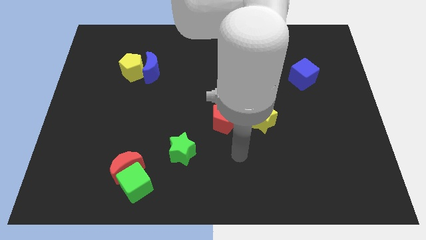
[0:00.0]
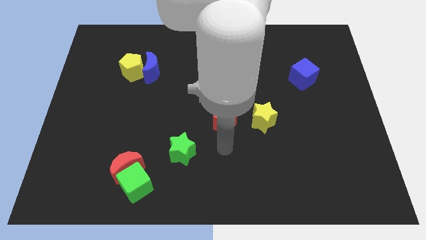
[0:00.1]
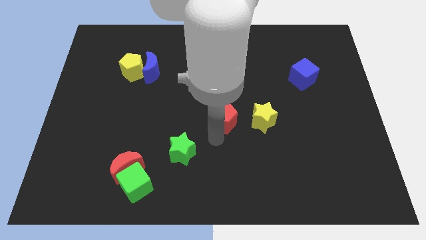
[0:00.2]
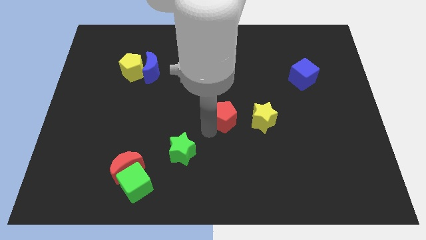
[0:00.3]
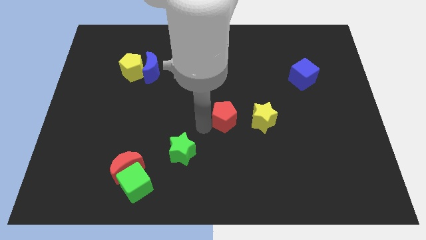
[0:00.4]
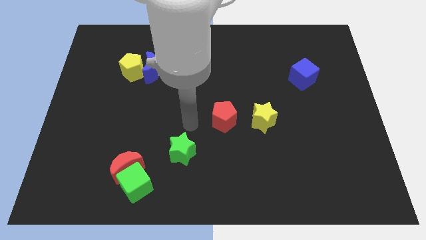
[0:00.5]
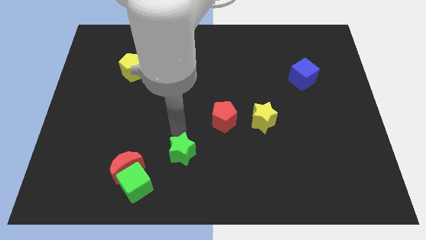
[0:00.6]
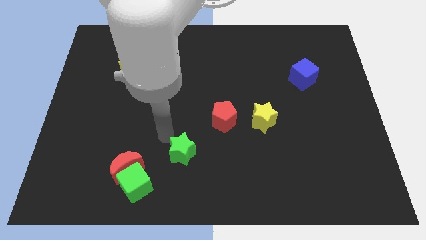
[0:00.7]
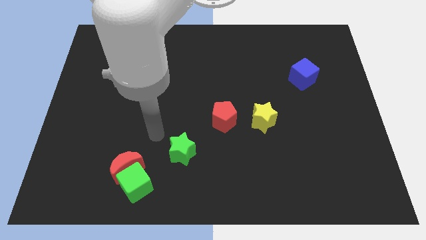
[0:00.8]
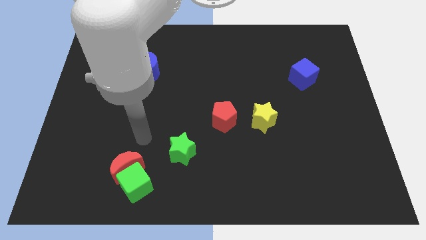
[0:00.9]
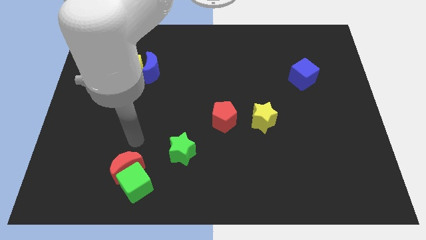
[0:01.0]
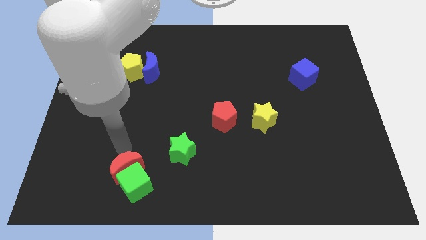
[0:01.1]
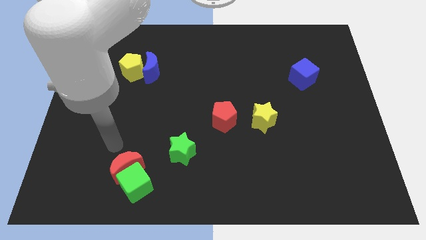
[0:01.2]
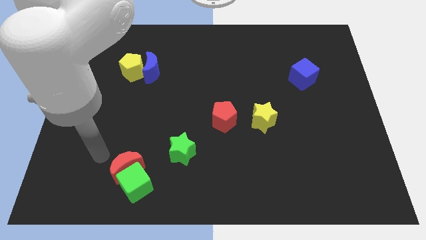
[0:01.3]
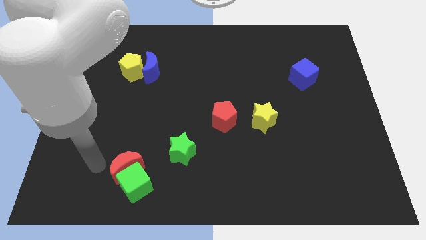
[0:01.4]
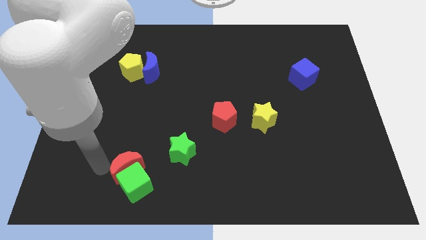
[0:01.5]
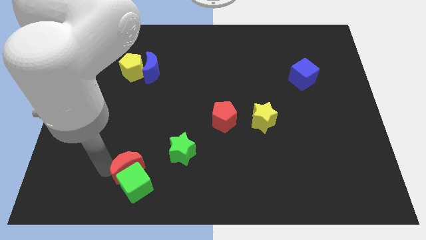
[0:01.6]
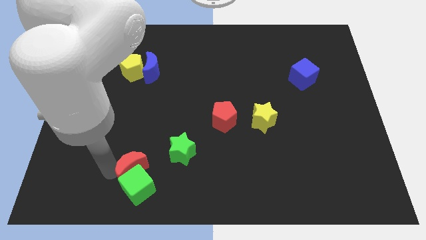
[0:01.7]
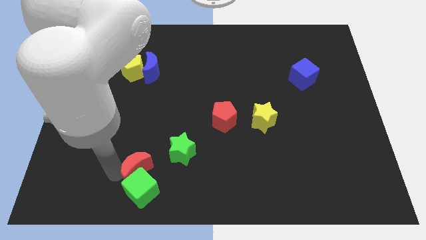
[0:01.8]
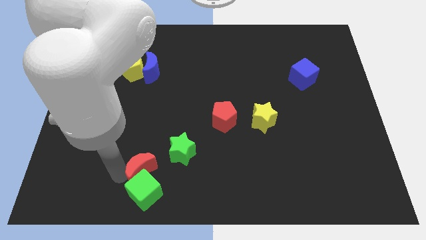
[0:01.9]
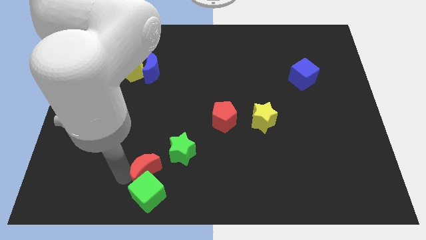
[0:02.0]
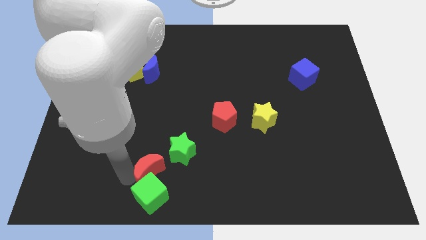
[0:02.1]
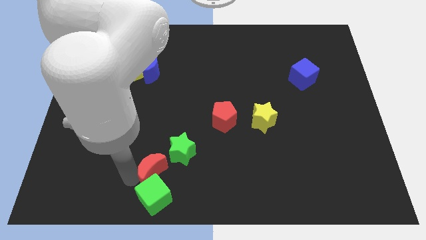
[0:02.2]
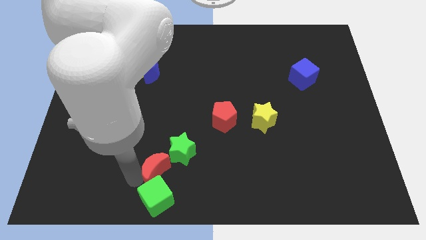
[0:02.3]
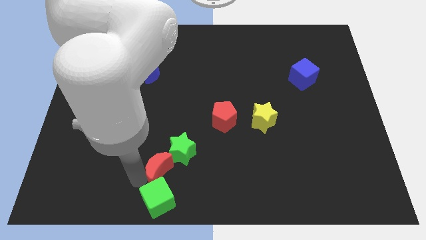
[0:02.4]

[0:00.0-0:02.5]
slightly move the red moon to the right

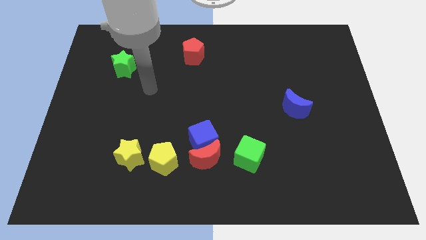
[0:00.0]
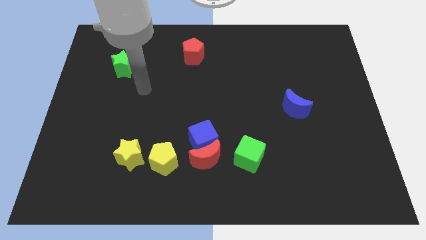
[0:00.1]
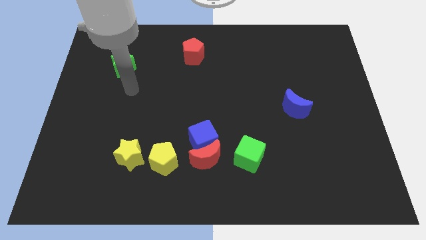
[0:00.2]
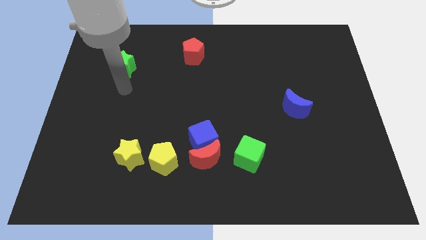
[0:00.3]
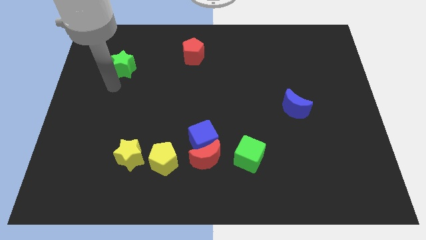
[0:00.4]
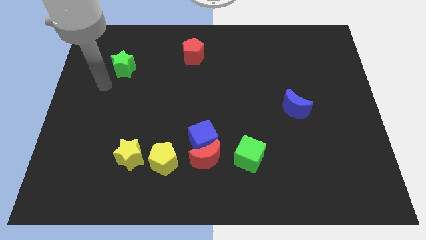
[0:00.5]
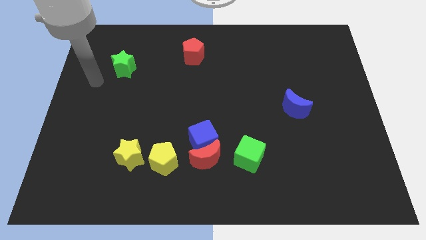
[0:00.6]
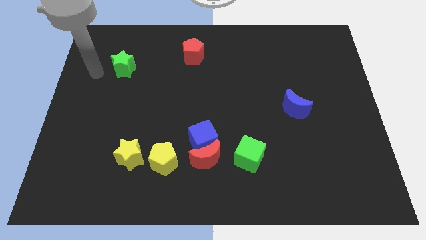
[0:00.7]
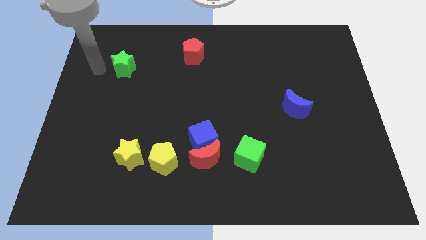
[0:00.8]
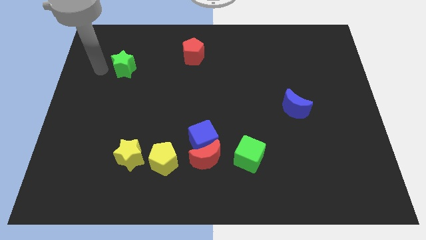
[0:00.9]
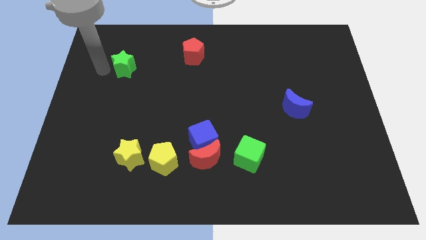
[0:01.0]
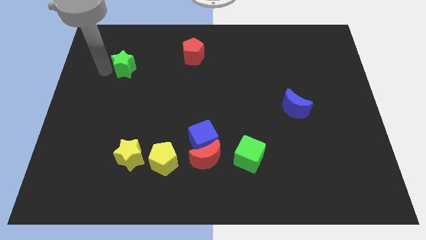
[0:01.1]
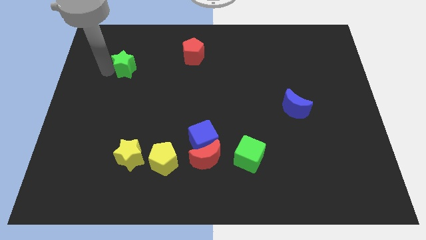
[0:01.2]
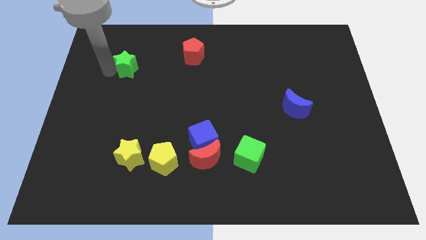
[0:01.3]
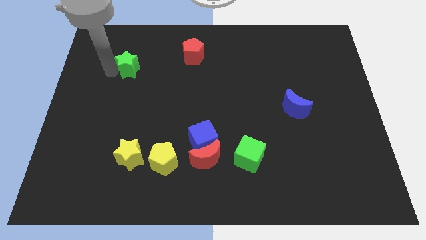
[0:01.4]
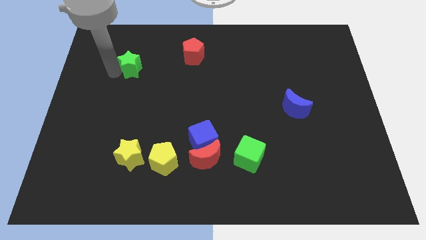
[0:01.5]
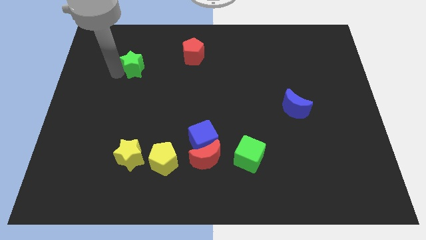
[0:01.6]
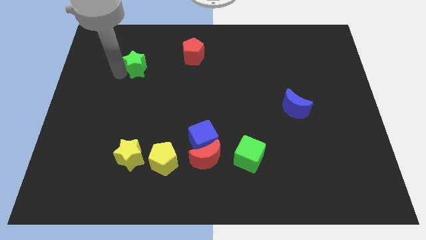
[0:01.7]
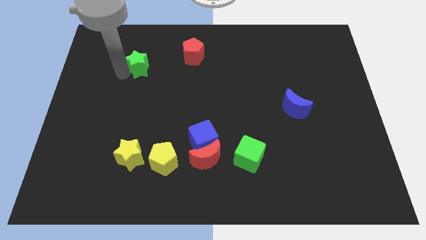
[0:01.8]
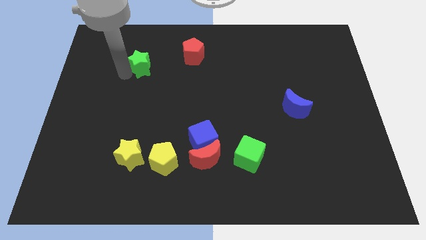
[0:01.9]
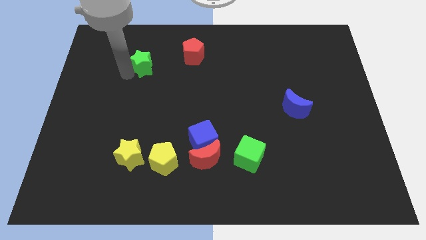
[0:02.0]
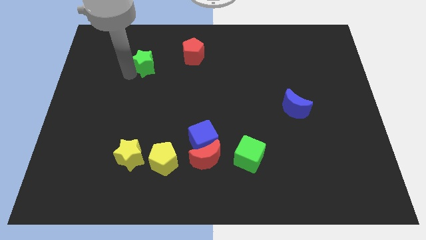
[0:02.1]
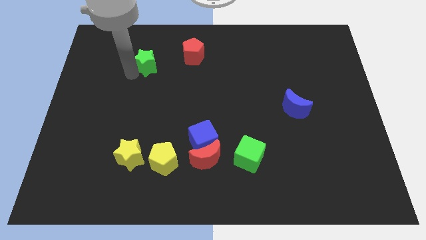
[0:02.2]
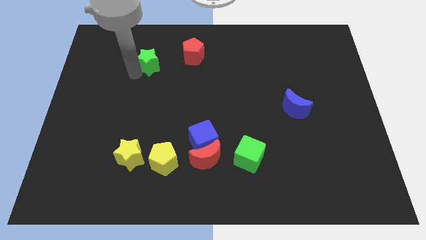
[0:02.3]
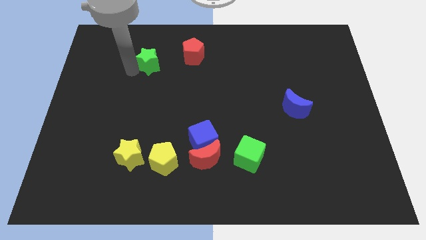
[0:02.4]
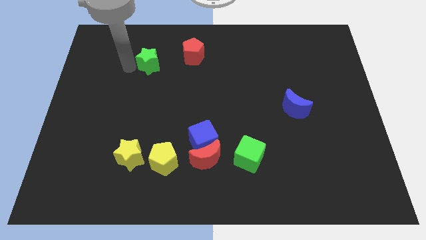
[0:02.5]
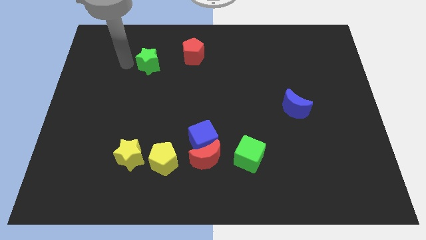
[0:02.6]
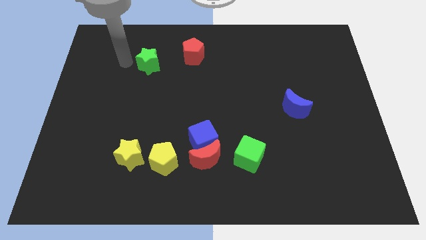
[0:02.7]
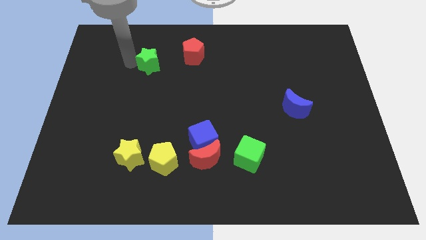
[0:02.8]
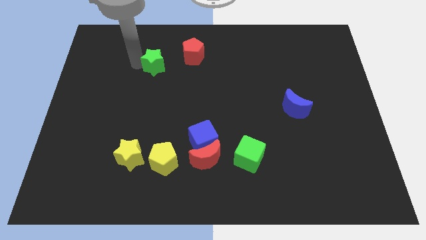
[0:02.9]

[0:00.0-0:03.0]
slide the green star right slightly

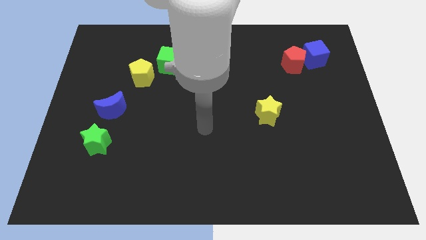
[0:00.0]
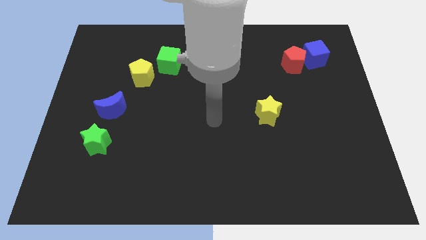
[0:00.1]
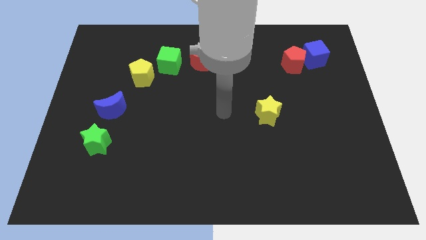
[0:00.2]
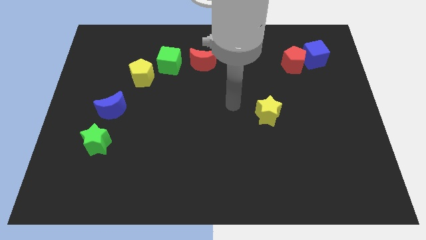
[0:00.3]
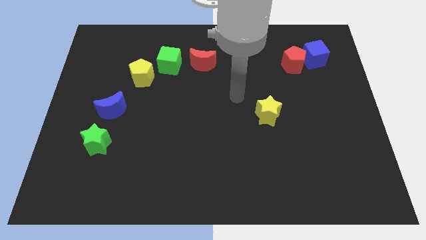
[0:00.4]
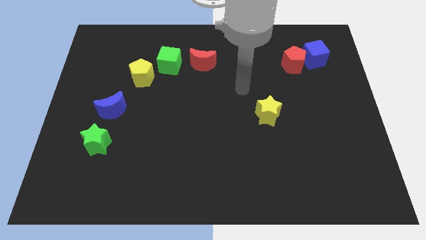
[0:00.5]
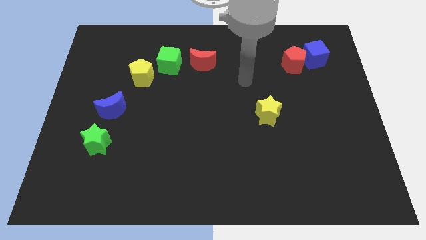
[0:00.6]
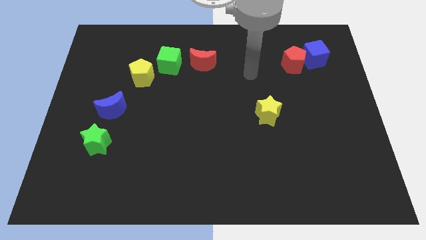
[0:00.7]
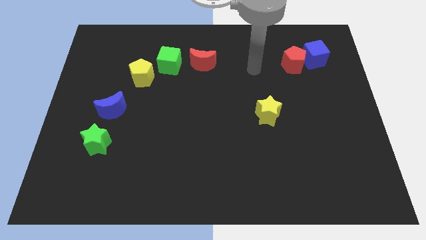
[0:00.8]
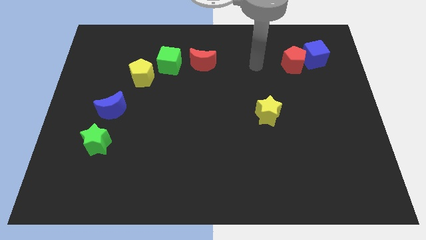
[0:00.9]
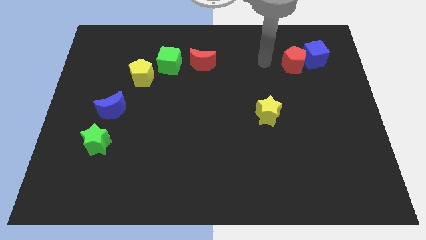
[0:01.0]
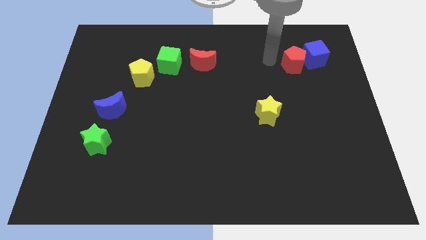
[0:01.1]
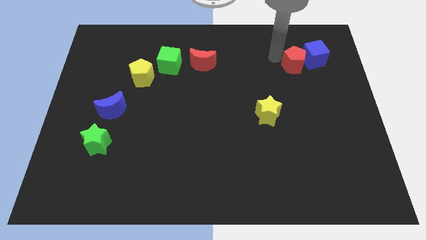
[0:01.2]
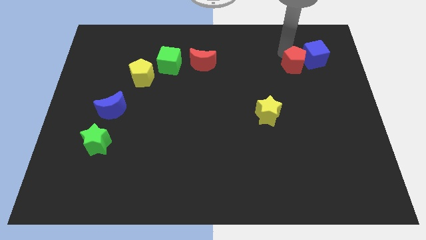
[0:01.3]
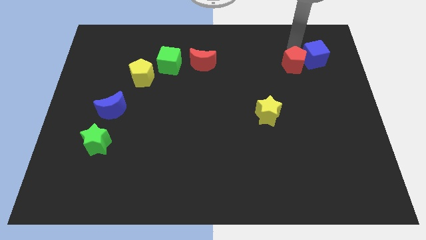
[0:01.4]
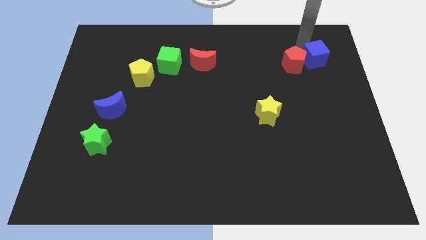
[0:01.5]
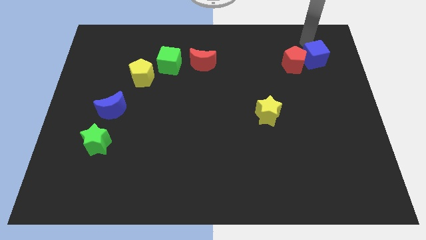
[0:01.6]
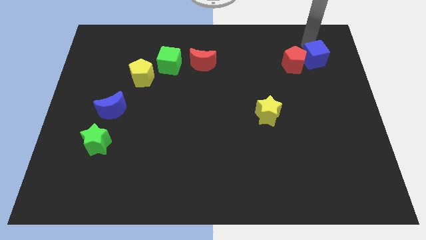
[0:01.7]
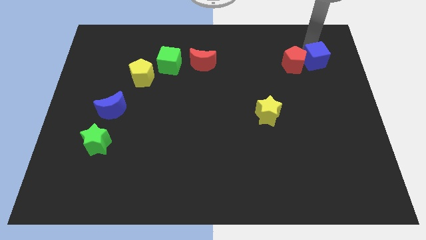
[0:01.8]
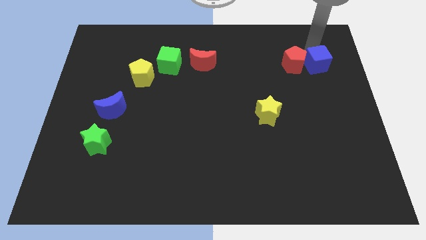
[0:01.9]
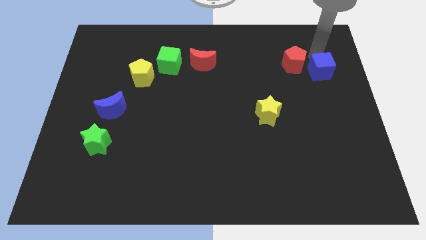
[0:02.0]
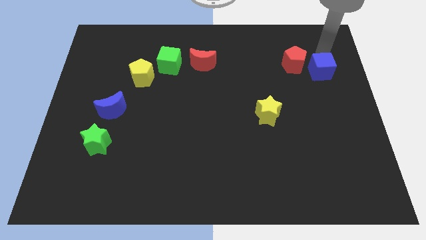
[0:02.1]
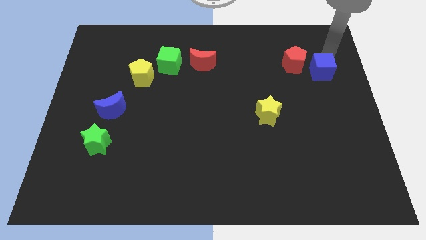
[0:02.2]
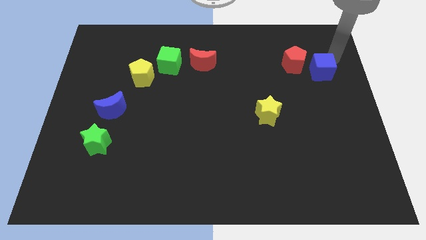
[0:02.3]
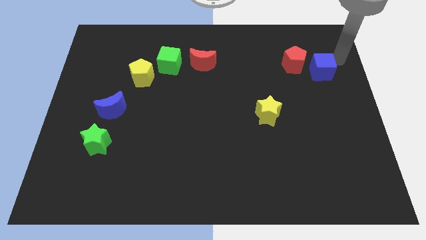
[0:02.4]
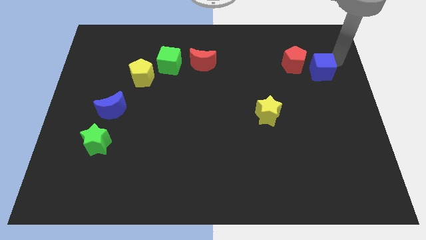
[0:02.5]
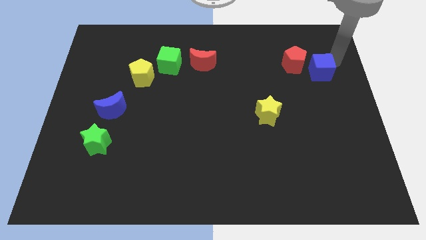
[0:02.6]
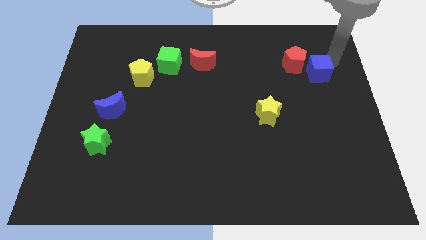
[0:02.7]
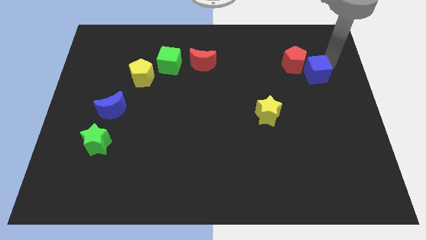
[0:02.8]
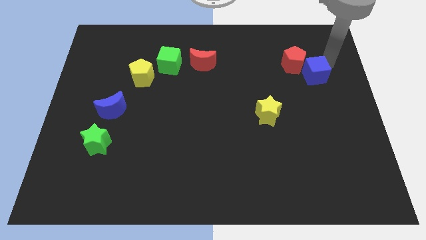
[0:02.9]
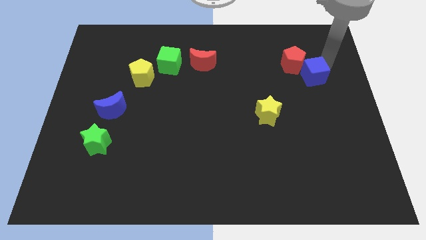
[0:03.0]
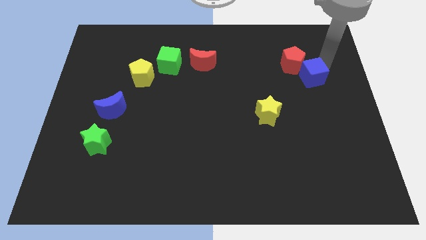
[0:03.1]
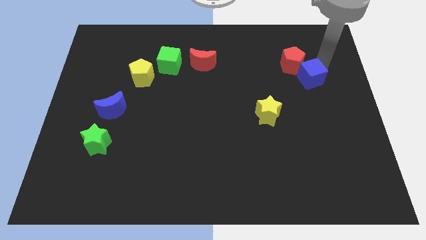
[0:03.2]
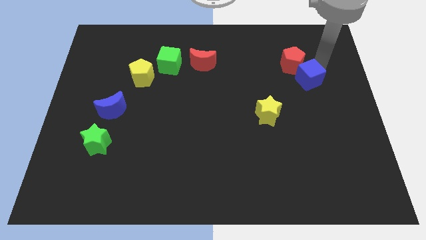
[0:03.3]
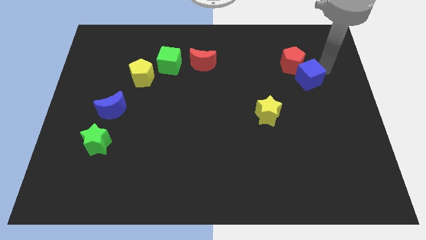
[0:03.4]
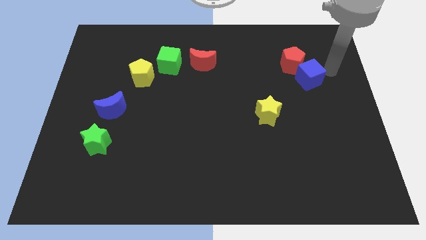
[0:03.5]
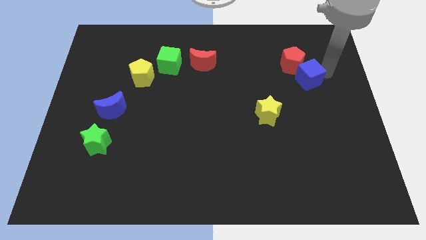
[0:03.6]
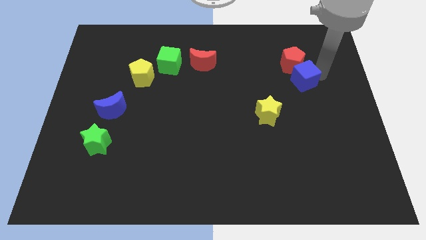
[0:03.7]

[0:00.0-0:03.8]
push the blue cube a bit diagonally downwards and left
